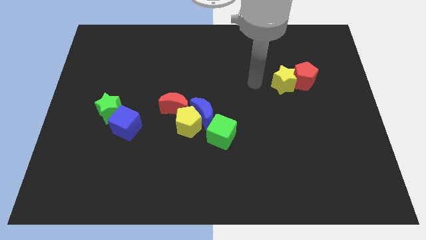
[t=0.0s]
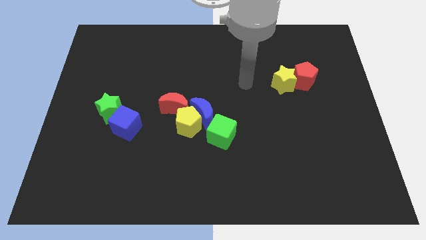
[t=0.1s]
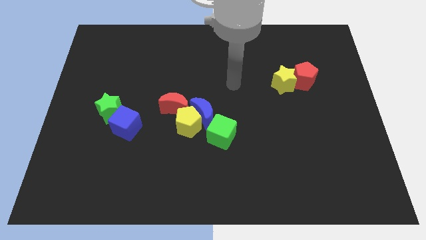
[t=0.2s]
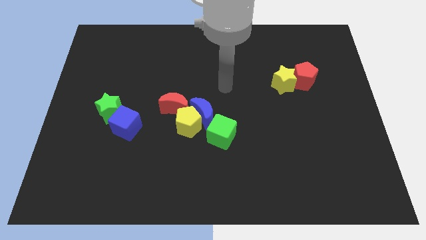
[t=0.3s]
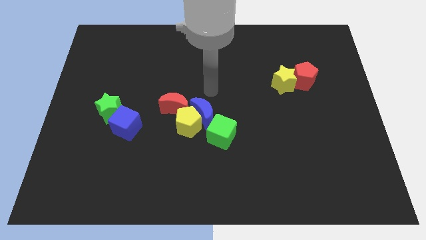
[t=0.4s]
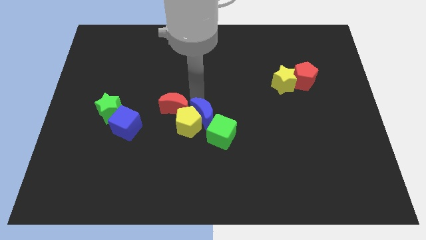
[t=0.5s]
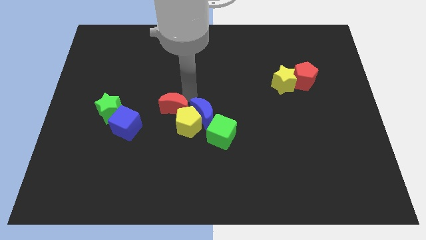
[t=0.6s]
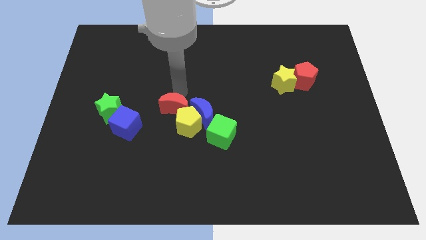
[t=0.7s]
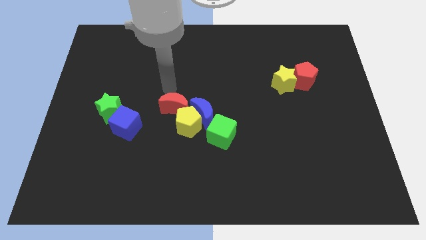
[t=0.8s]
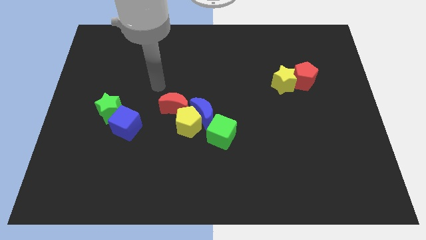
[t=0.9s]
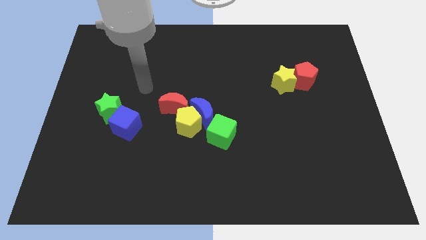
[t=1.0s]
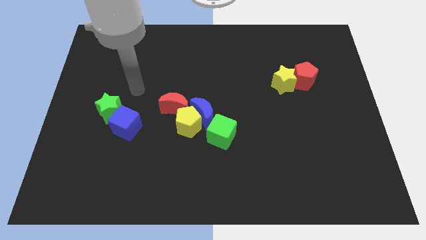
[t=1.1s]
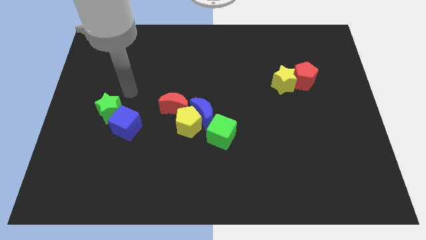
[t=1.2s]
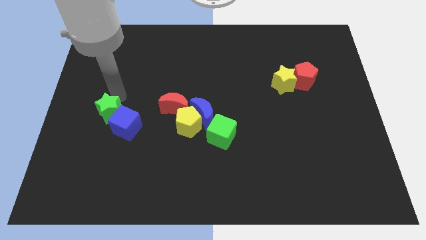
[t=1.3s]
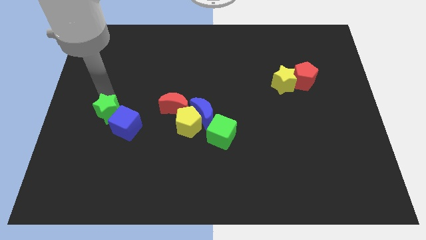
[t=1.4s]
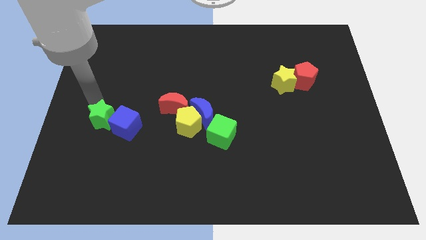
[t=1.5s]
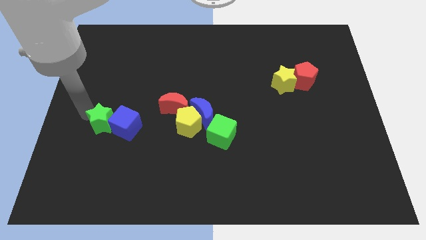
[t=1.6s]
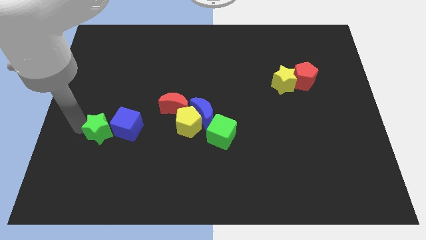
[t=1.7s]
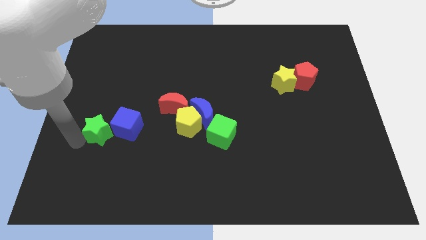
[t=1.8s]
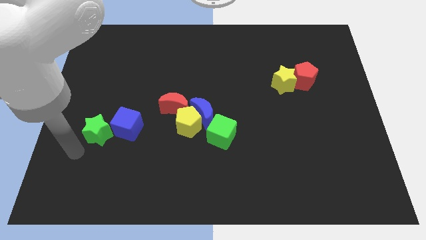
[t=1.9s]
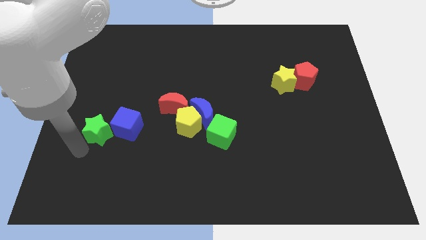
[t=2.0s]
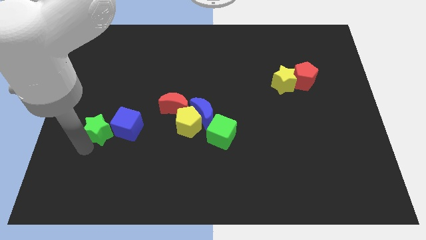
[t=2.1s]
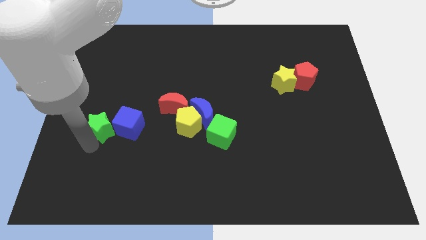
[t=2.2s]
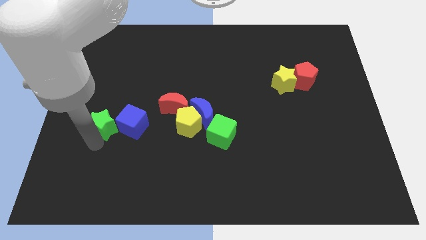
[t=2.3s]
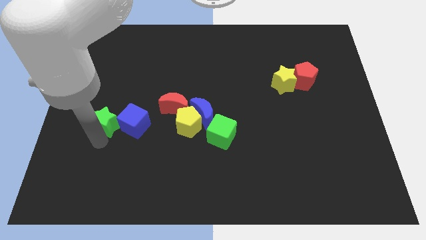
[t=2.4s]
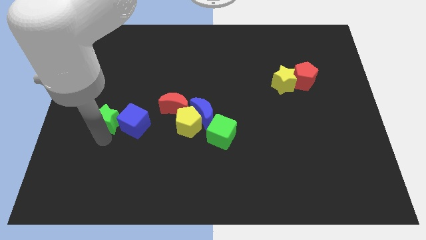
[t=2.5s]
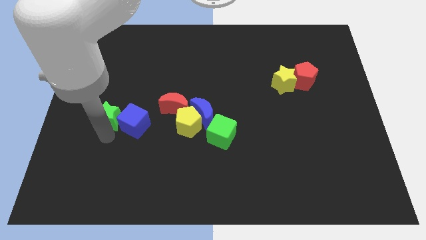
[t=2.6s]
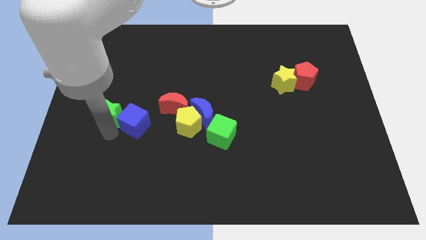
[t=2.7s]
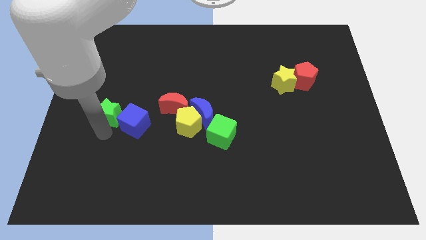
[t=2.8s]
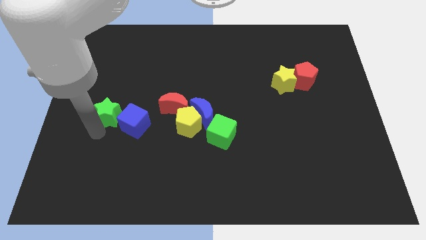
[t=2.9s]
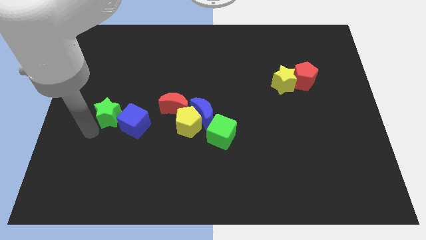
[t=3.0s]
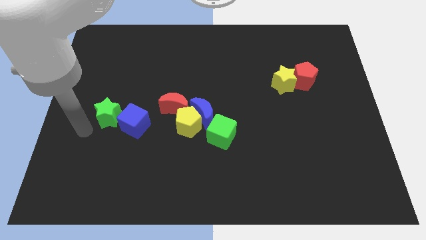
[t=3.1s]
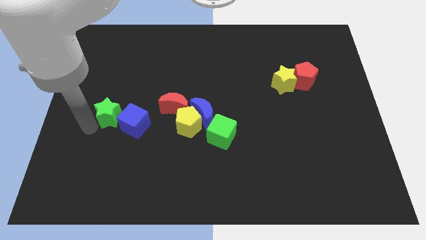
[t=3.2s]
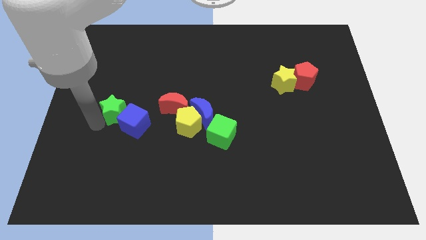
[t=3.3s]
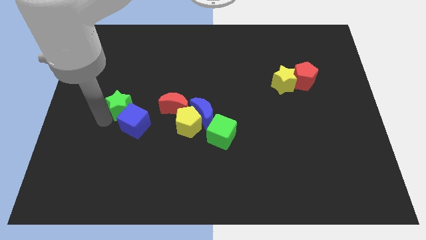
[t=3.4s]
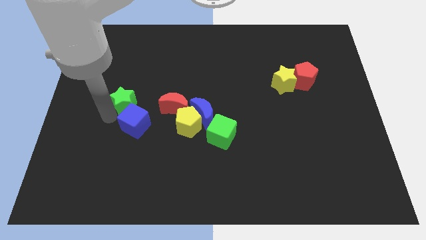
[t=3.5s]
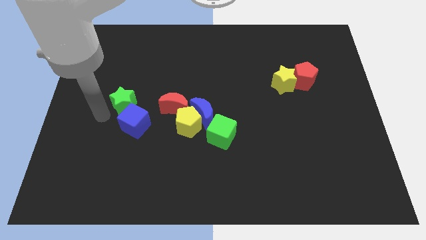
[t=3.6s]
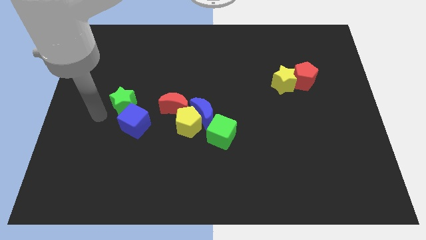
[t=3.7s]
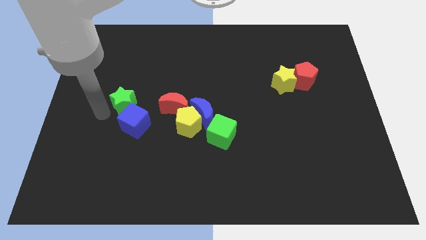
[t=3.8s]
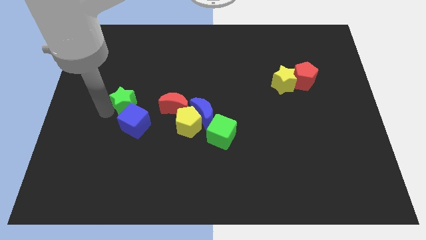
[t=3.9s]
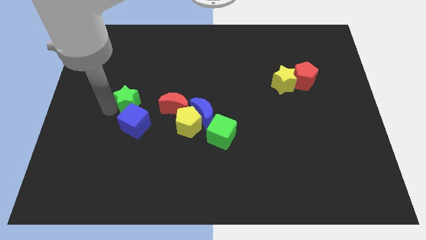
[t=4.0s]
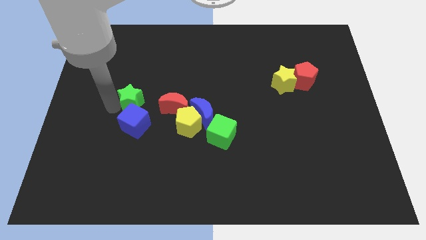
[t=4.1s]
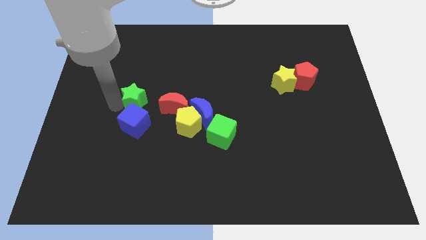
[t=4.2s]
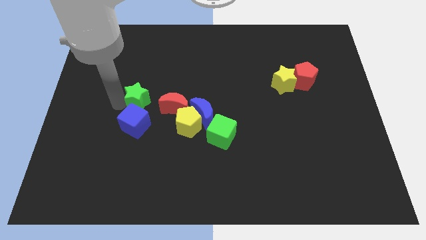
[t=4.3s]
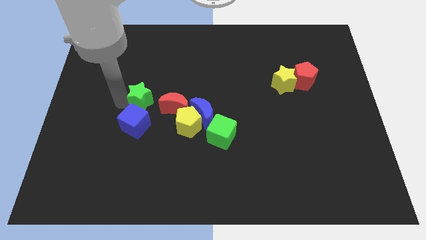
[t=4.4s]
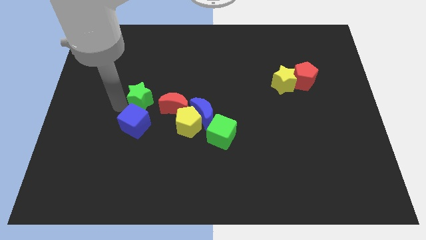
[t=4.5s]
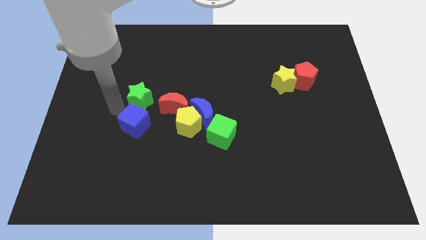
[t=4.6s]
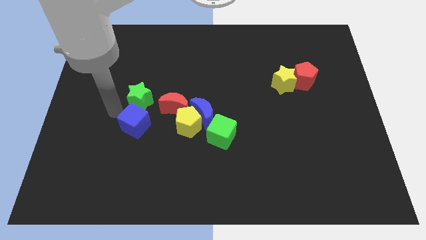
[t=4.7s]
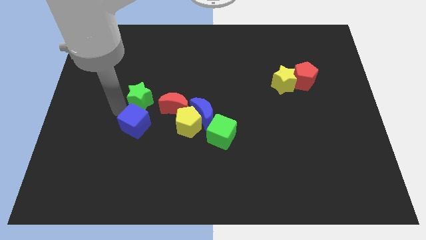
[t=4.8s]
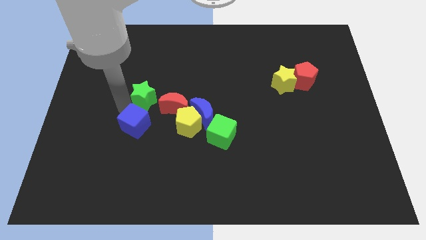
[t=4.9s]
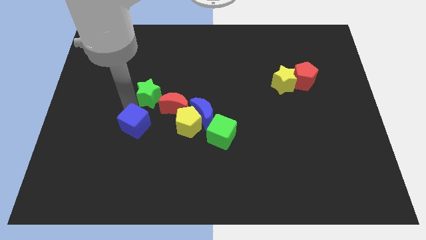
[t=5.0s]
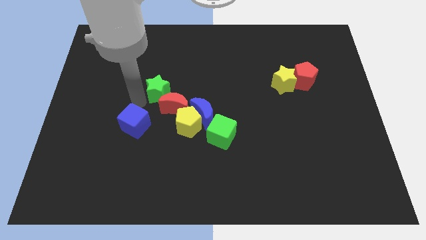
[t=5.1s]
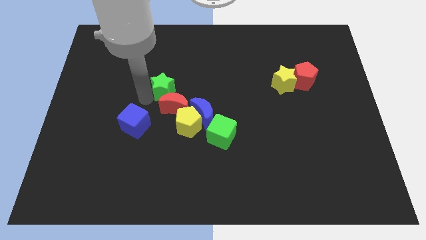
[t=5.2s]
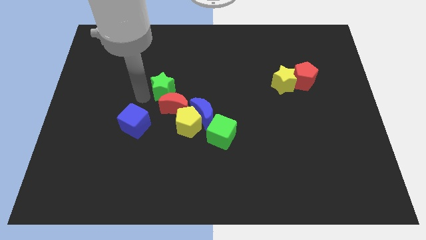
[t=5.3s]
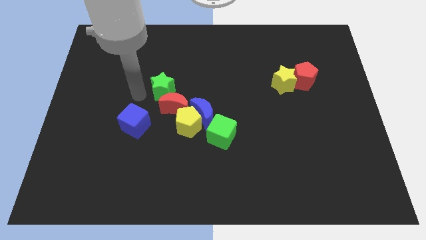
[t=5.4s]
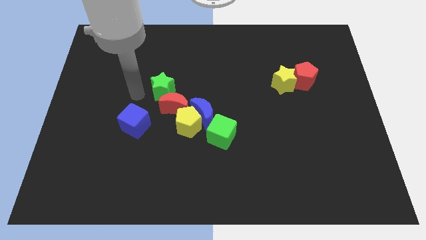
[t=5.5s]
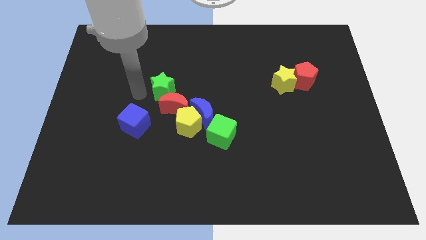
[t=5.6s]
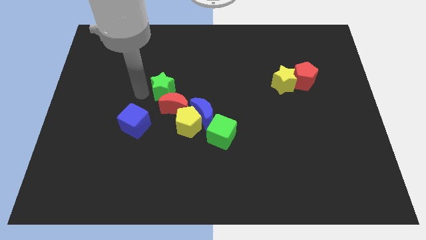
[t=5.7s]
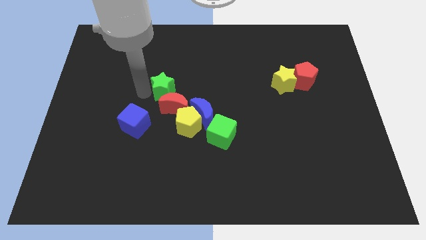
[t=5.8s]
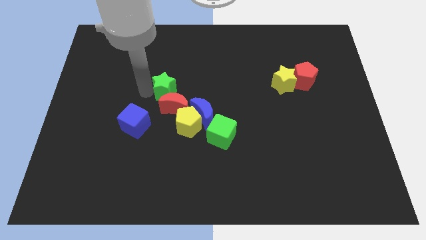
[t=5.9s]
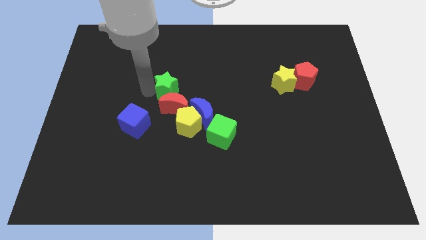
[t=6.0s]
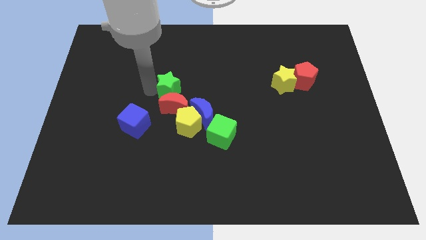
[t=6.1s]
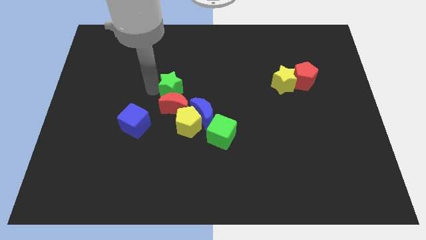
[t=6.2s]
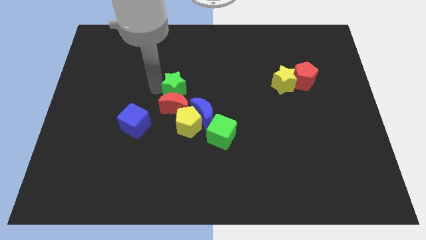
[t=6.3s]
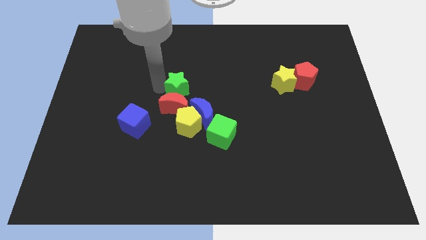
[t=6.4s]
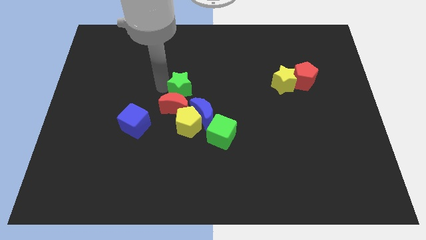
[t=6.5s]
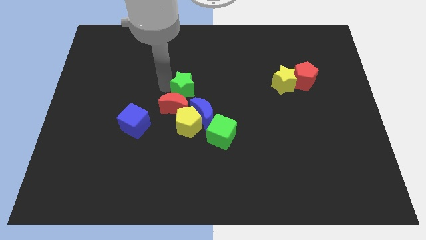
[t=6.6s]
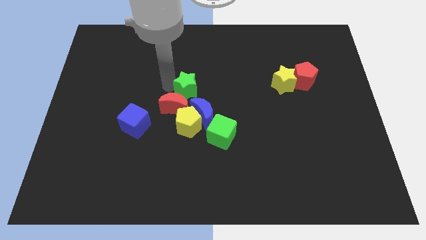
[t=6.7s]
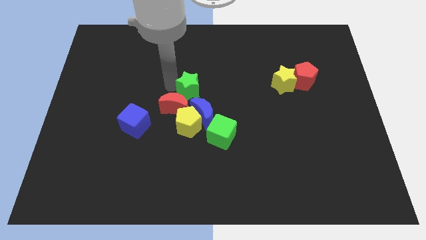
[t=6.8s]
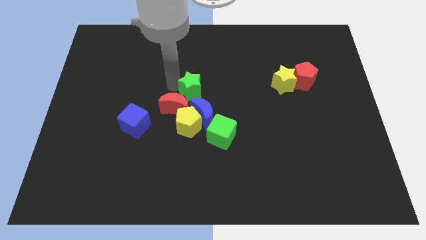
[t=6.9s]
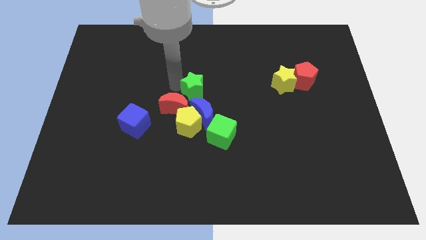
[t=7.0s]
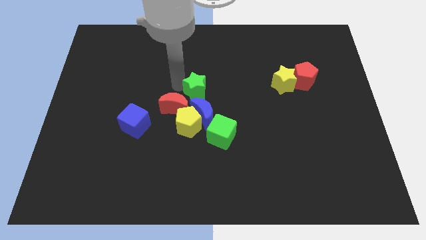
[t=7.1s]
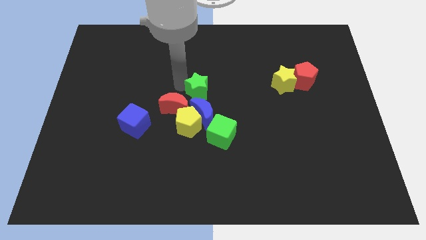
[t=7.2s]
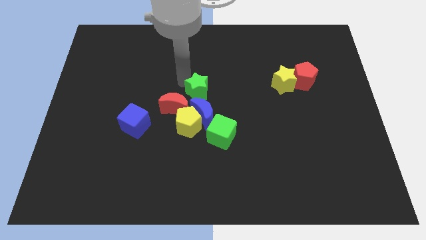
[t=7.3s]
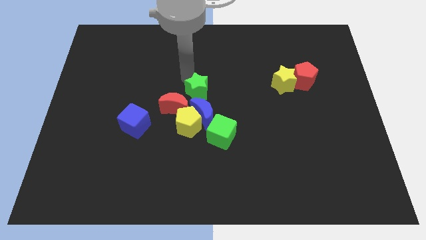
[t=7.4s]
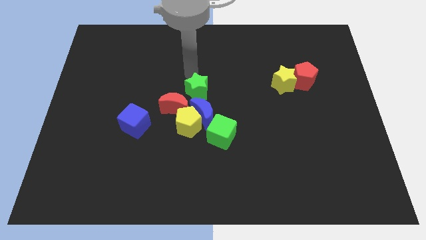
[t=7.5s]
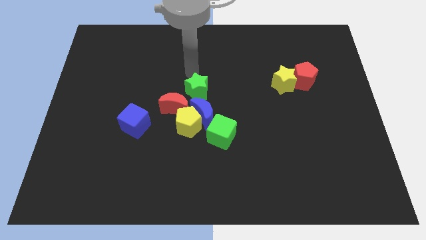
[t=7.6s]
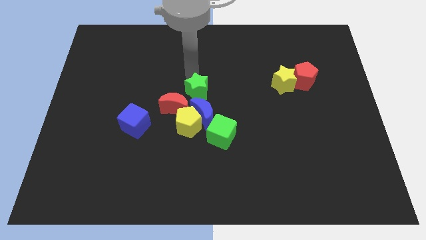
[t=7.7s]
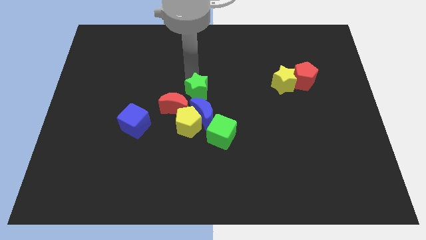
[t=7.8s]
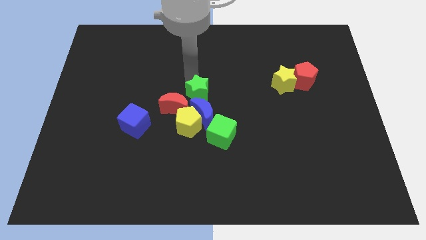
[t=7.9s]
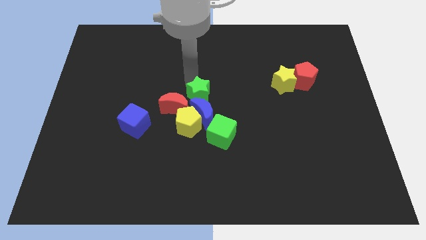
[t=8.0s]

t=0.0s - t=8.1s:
push the green star close to the blue moon
